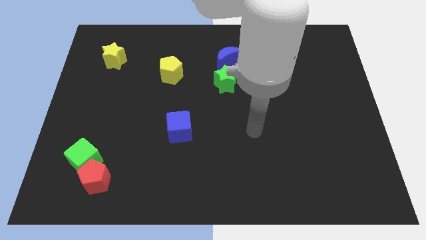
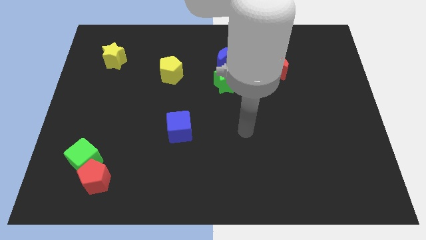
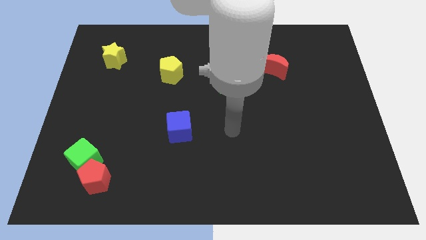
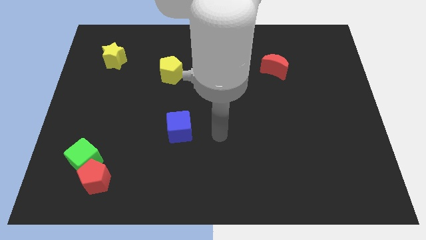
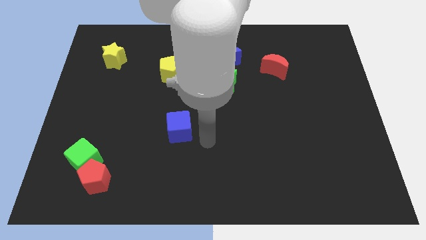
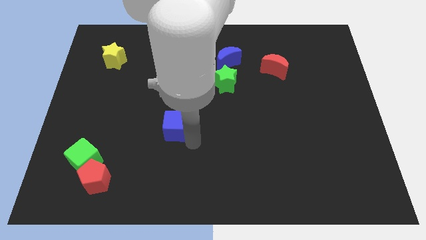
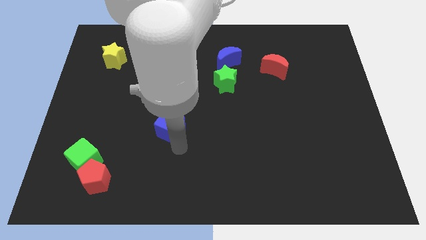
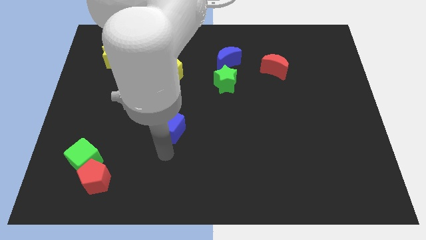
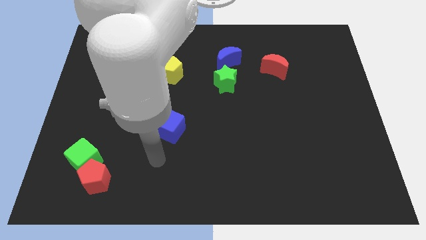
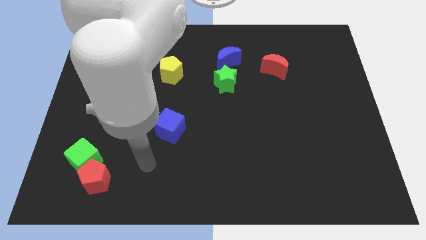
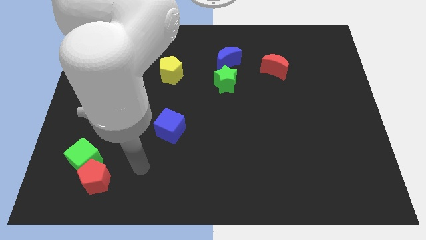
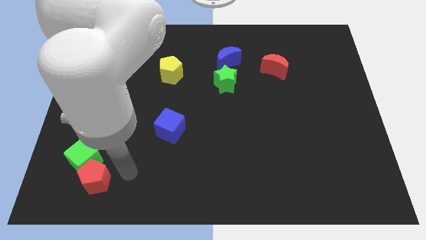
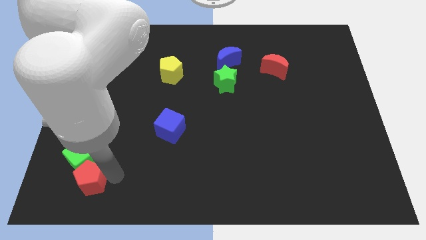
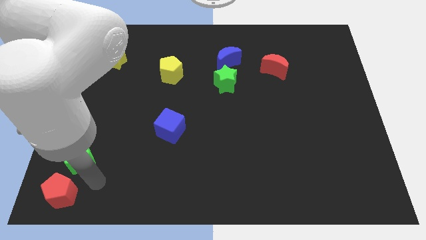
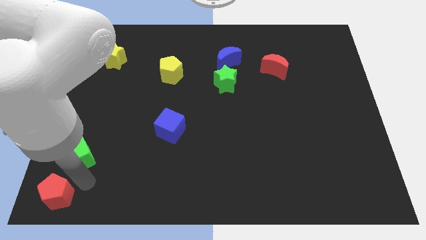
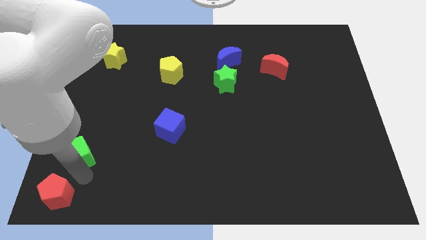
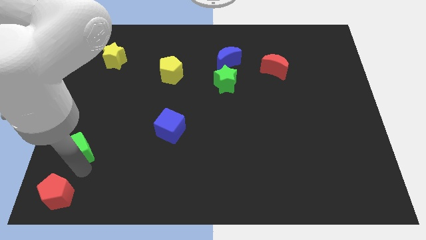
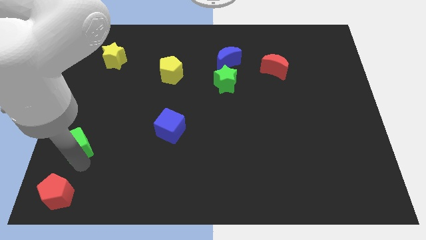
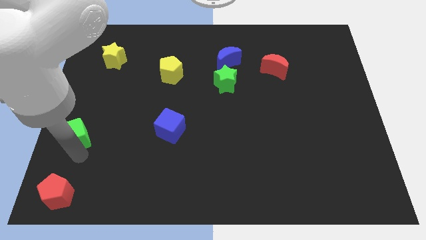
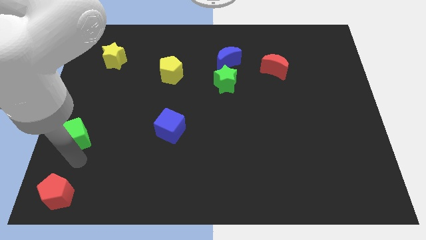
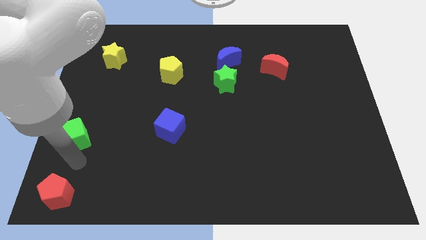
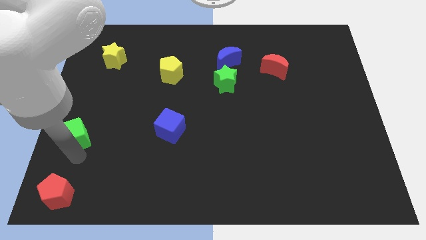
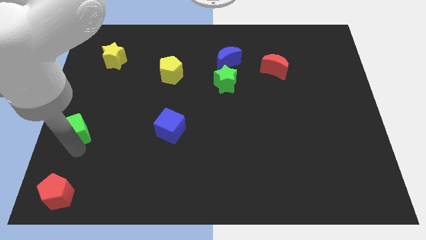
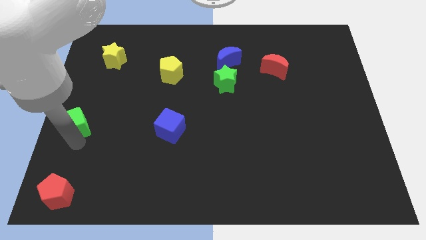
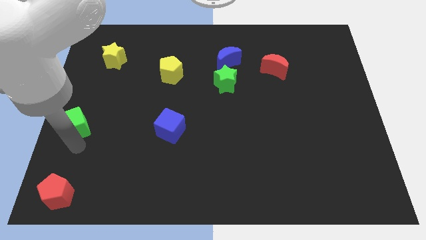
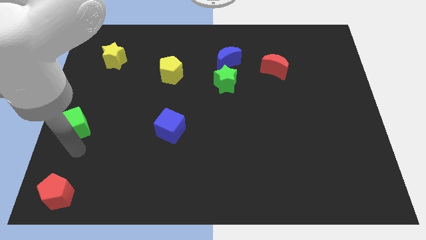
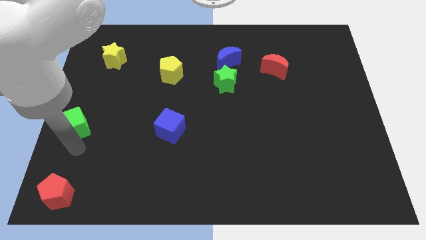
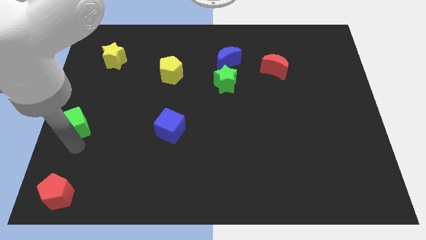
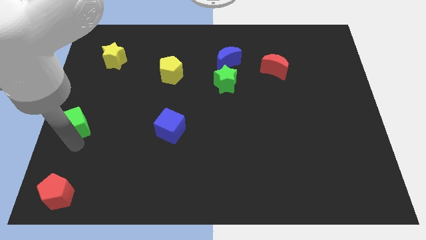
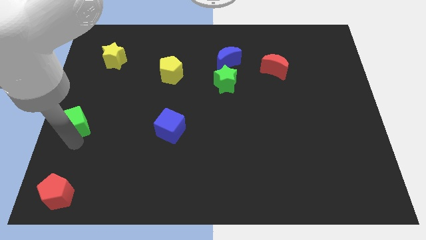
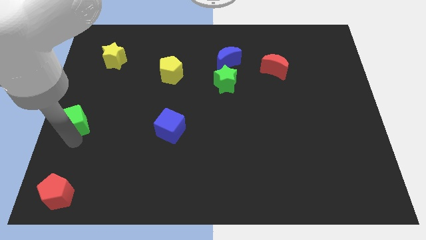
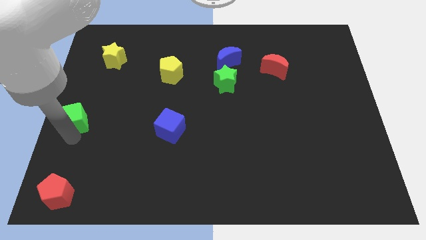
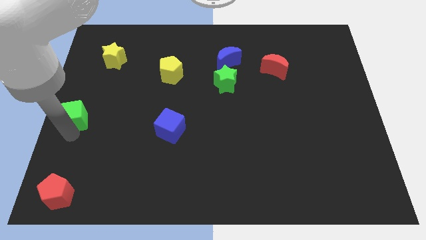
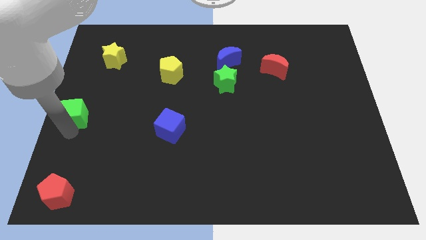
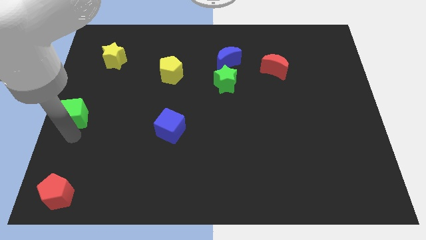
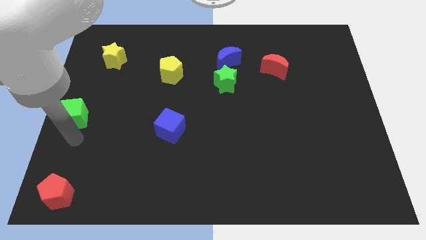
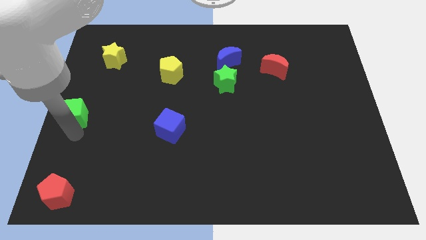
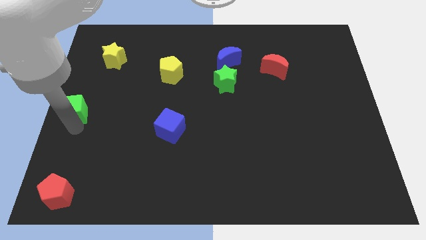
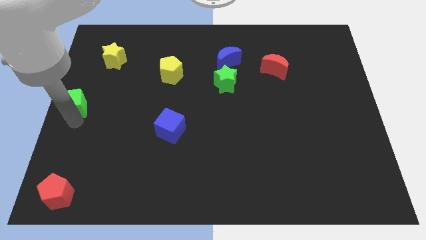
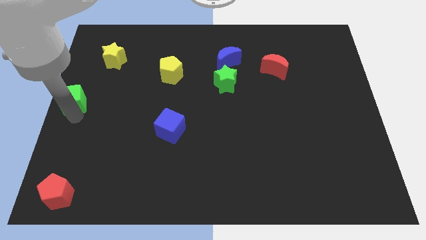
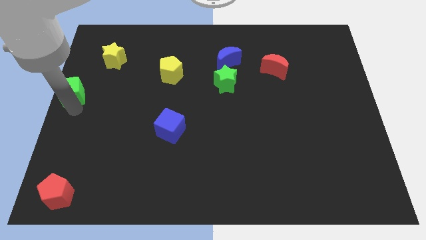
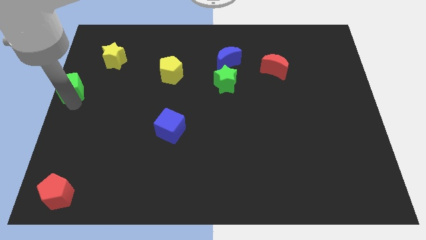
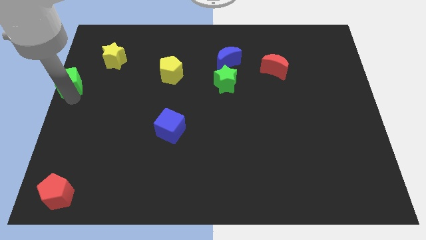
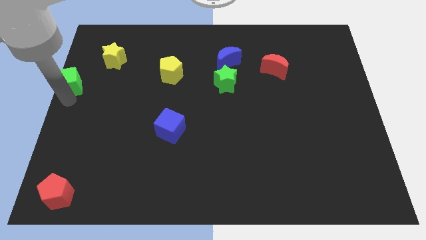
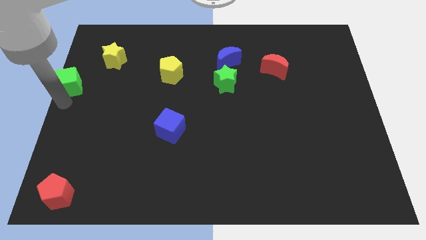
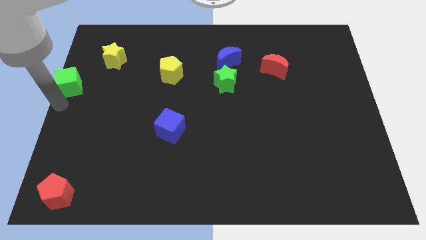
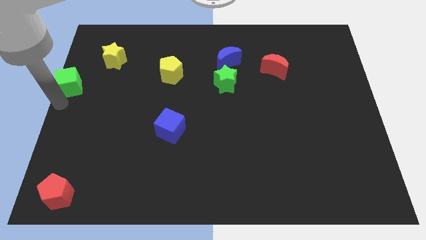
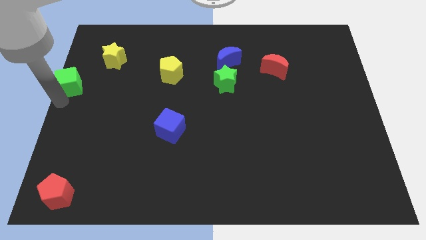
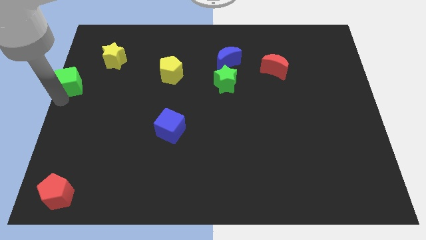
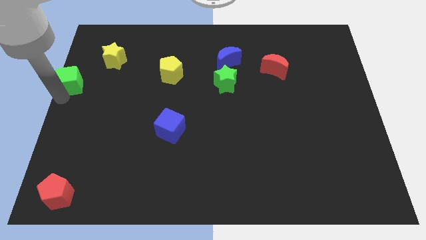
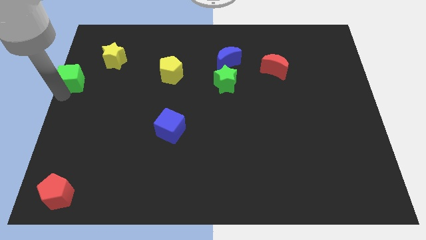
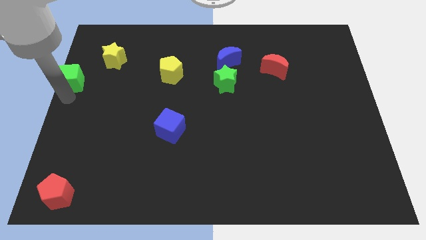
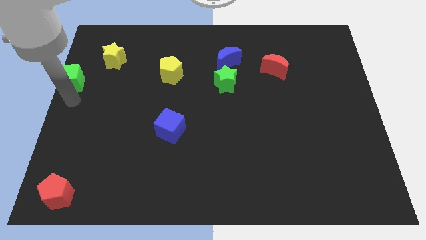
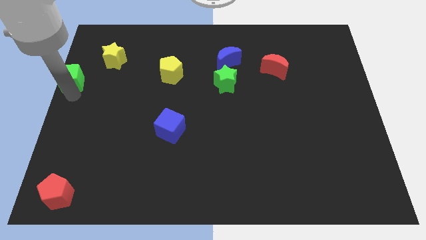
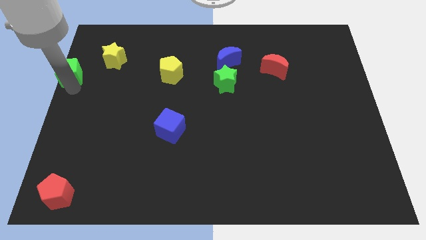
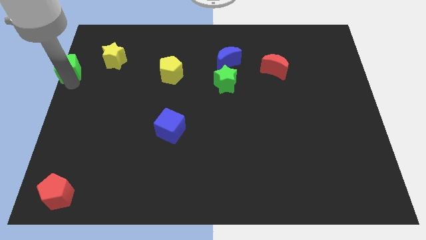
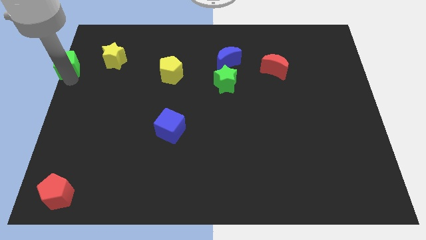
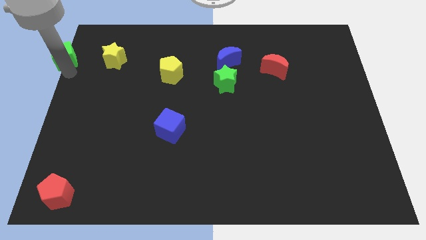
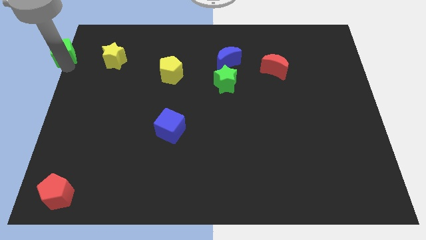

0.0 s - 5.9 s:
put the green cube to the top left

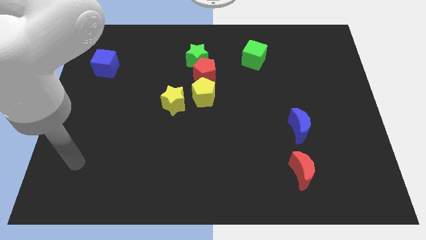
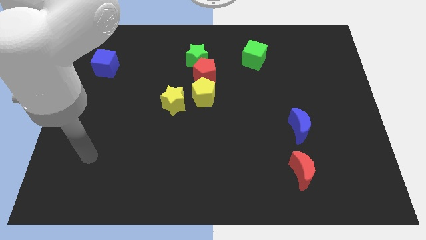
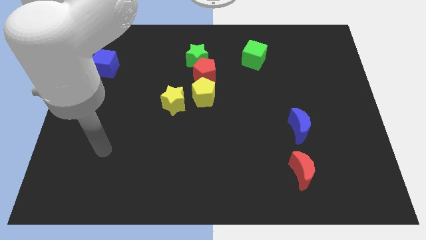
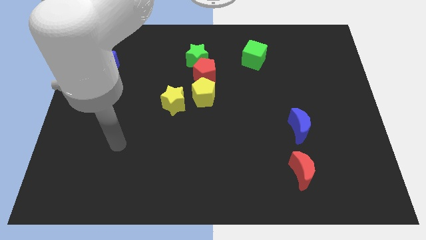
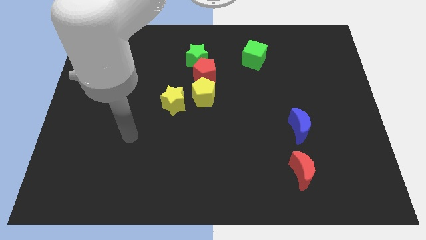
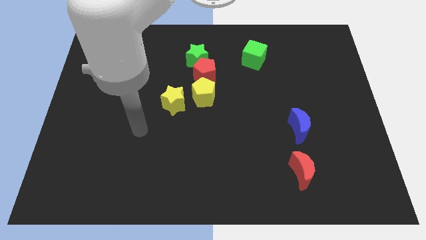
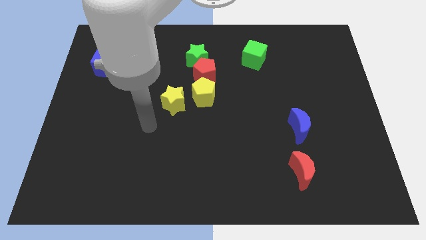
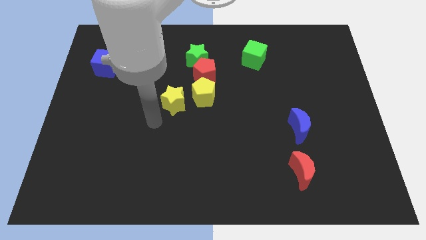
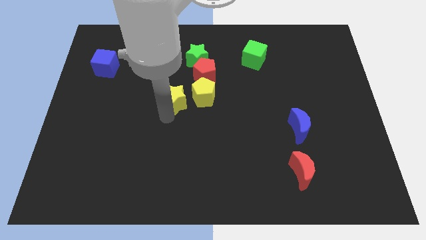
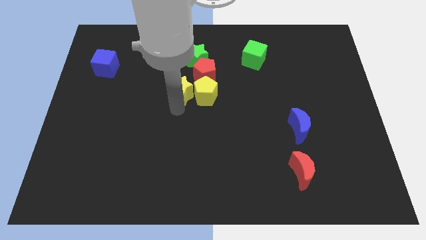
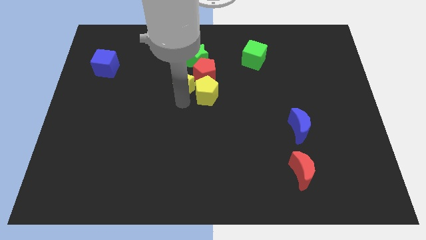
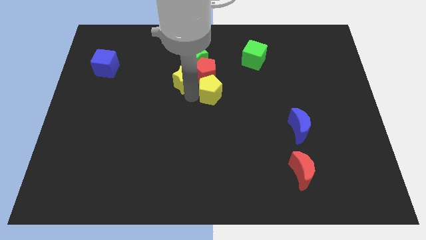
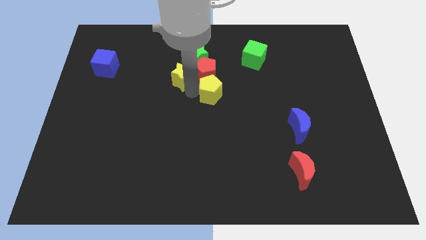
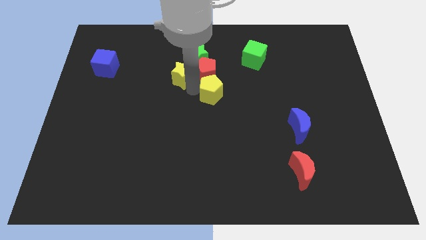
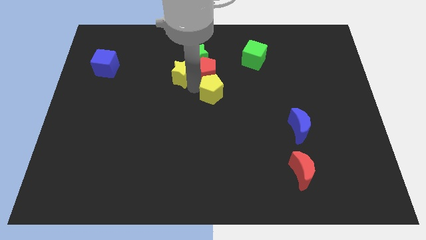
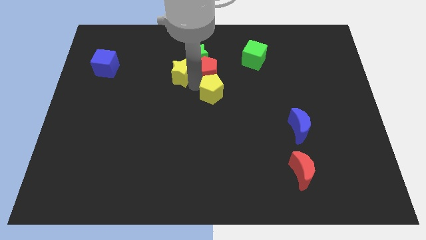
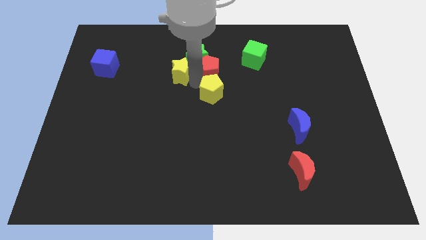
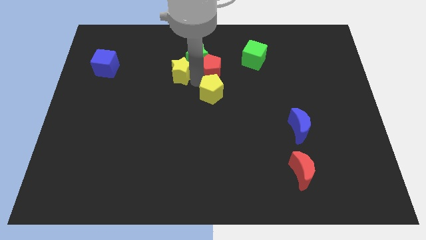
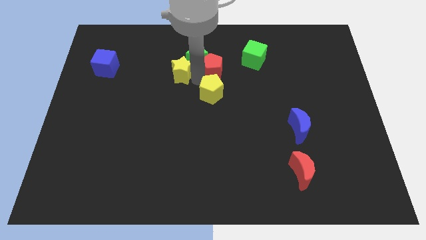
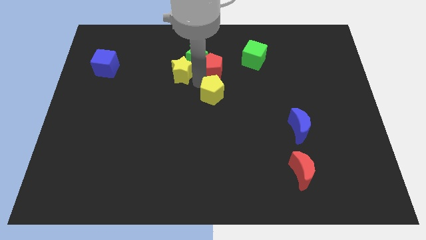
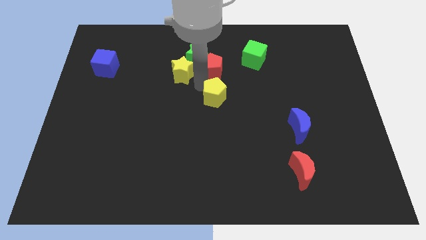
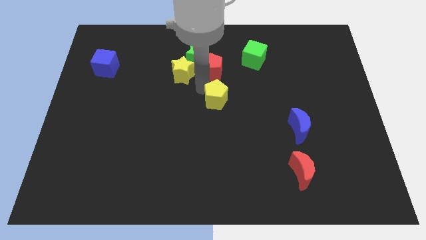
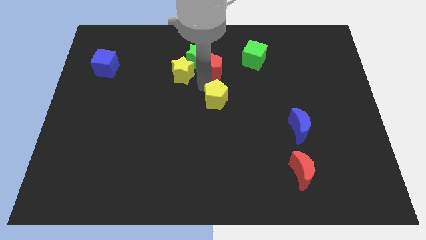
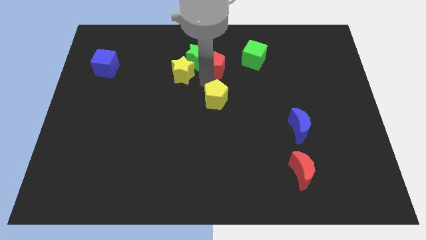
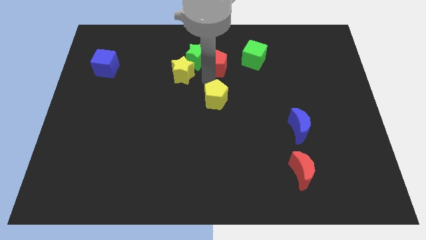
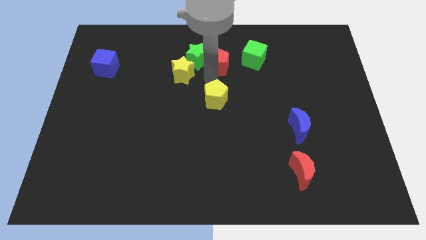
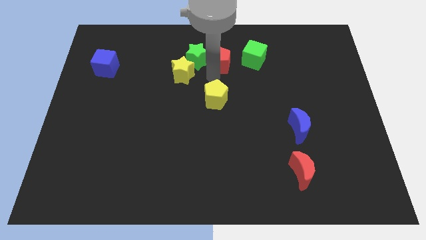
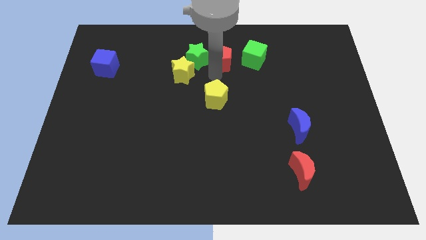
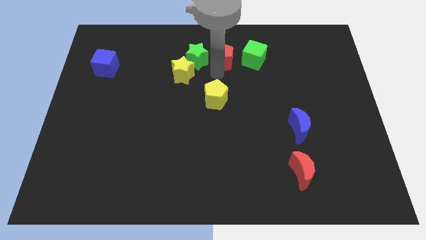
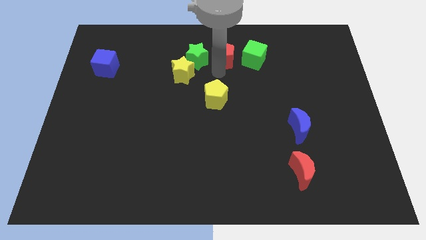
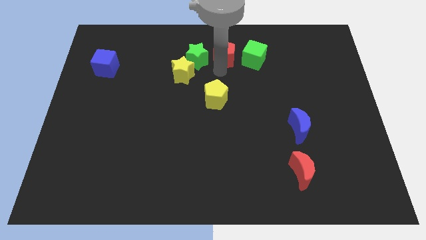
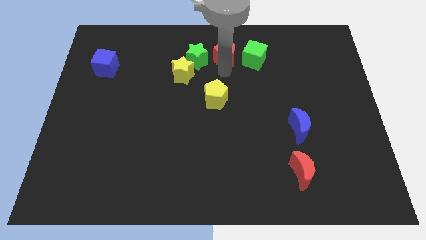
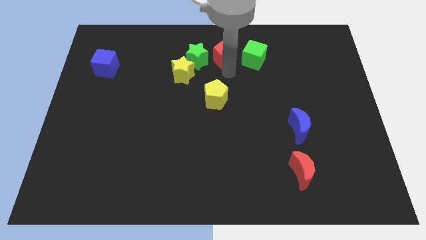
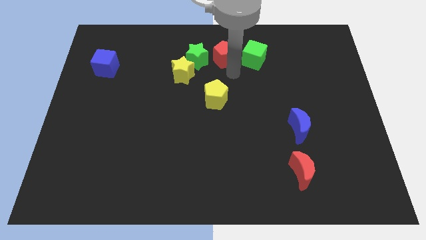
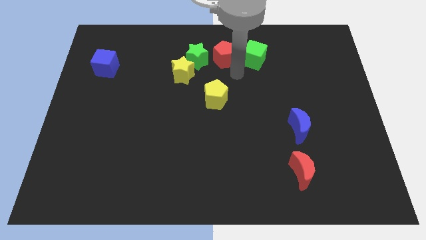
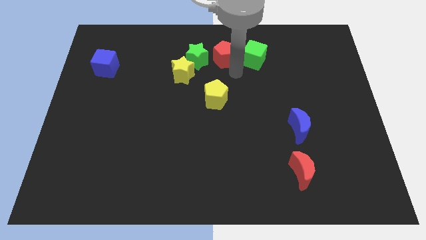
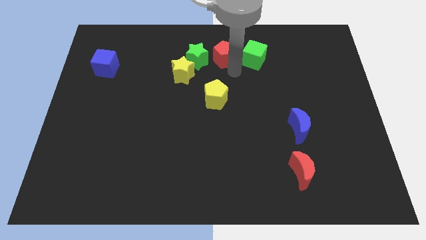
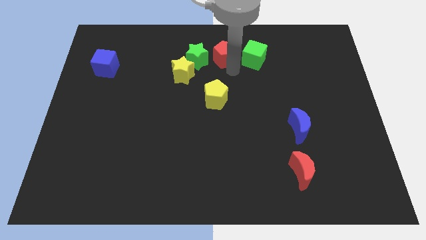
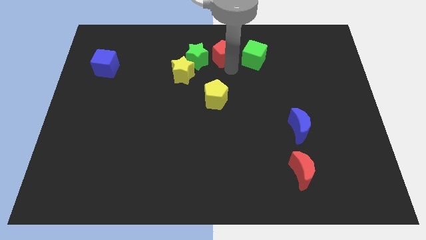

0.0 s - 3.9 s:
slide the red pentagon to the towards your base
